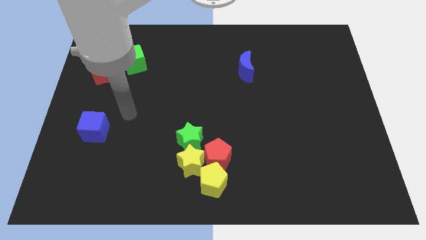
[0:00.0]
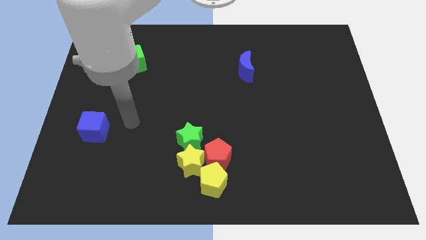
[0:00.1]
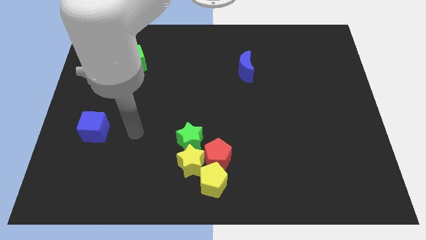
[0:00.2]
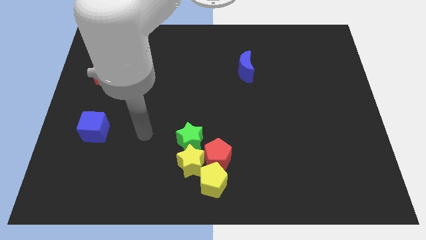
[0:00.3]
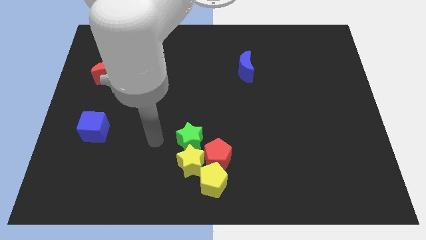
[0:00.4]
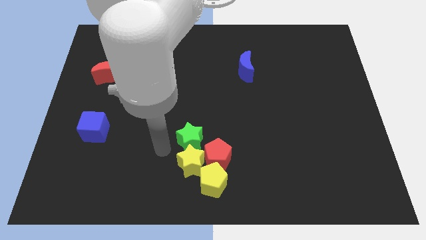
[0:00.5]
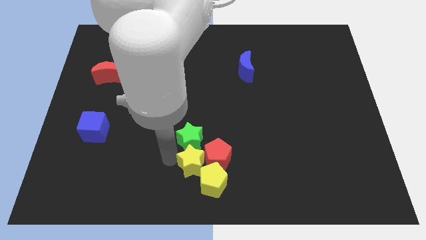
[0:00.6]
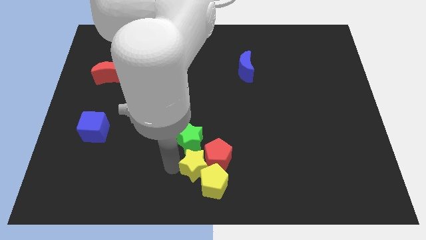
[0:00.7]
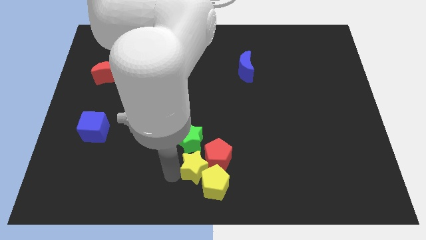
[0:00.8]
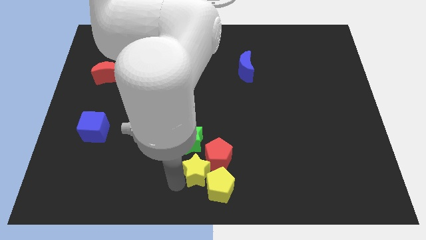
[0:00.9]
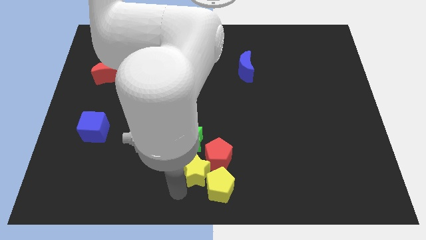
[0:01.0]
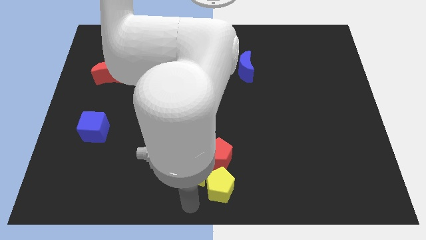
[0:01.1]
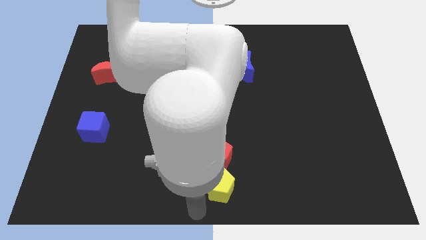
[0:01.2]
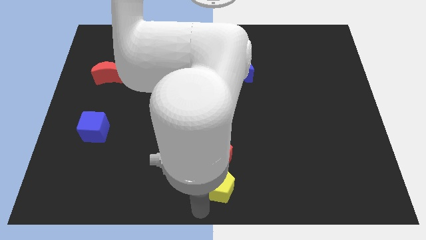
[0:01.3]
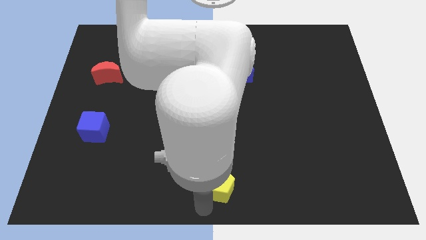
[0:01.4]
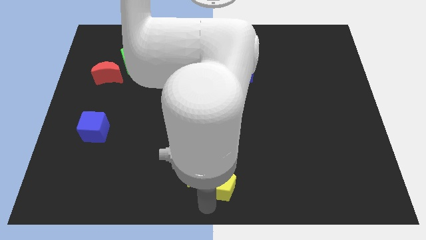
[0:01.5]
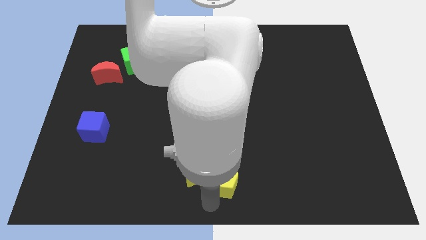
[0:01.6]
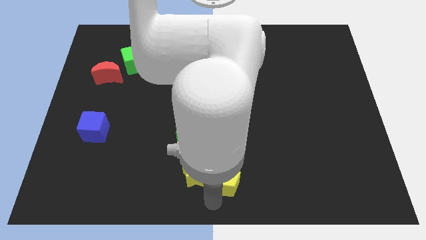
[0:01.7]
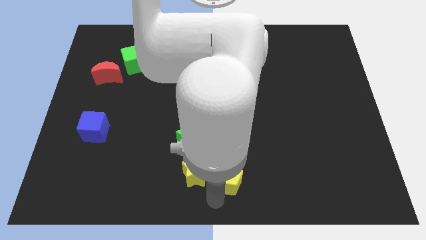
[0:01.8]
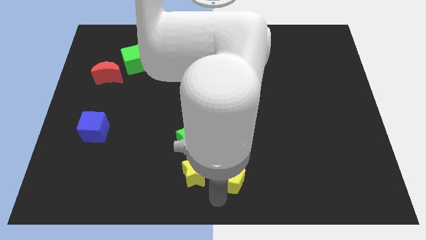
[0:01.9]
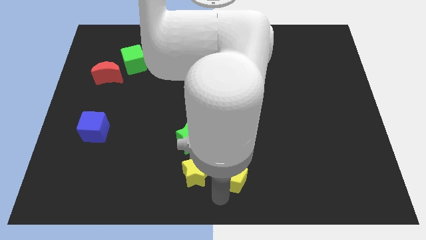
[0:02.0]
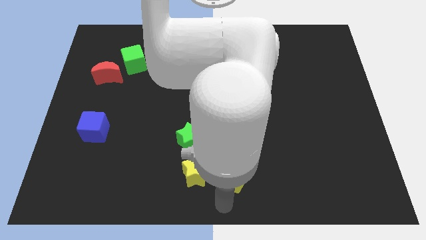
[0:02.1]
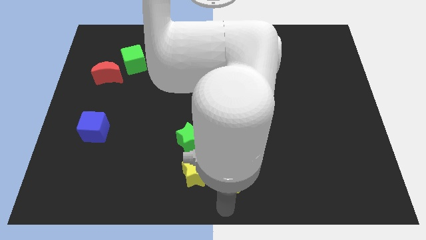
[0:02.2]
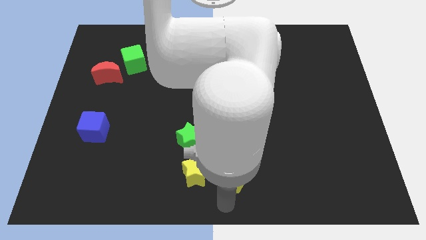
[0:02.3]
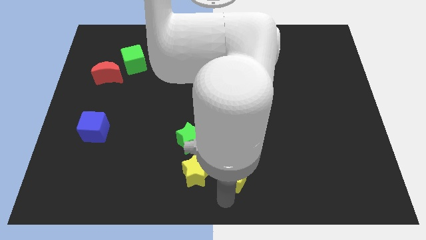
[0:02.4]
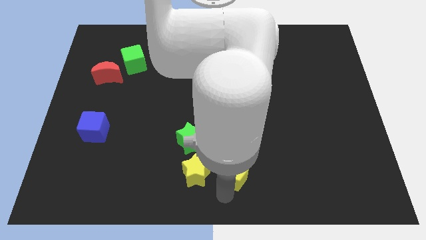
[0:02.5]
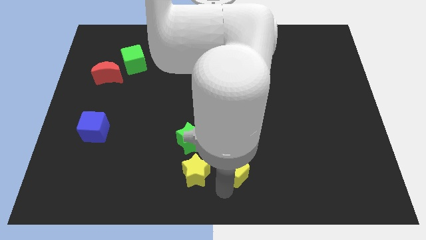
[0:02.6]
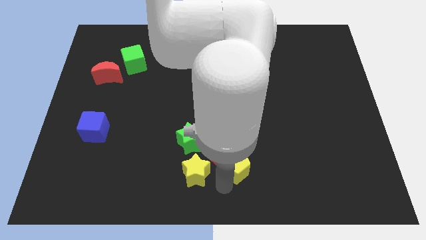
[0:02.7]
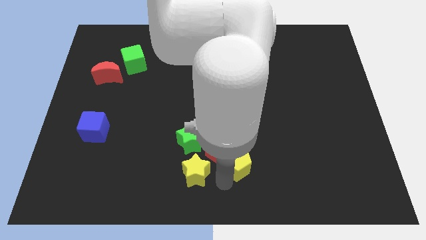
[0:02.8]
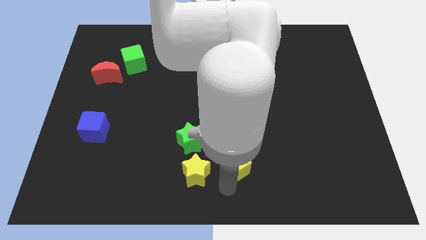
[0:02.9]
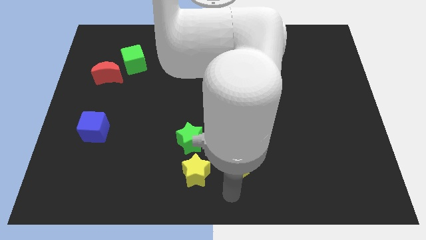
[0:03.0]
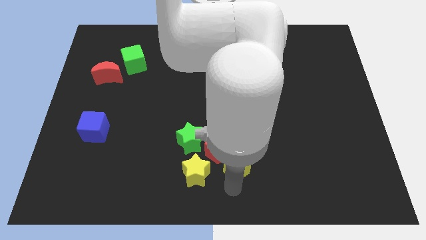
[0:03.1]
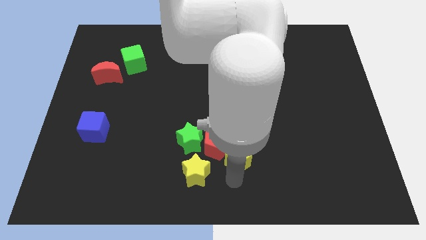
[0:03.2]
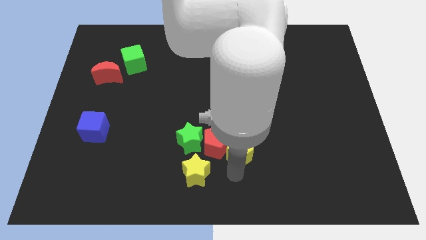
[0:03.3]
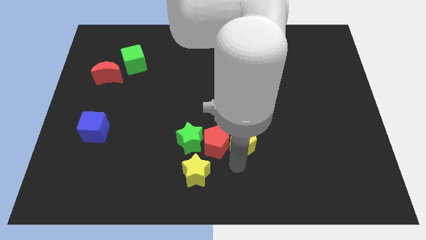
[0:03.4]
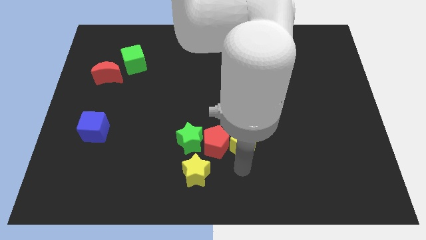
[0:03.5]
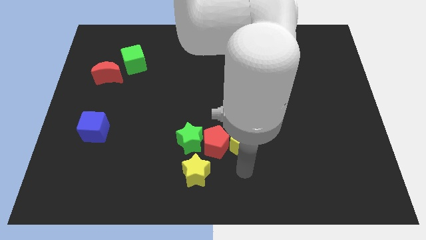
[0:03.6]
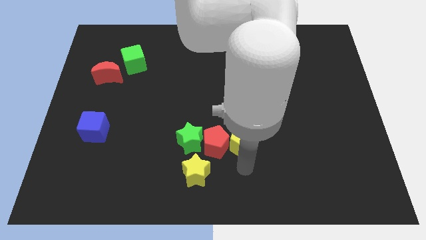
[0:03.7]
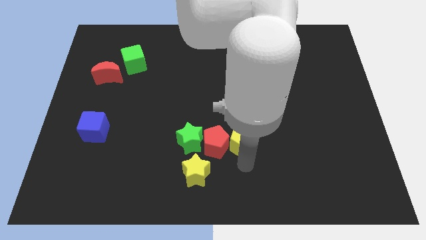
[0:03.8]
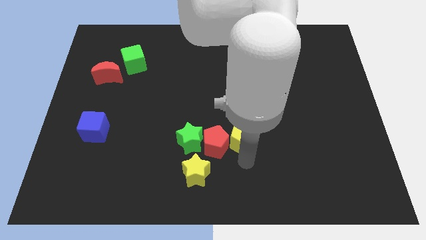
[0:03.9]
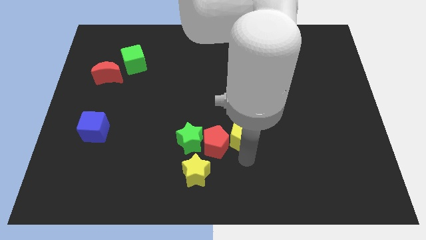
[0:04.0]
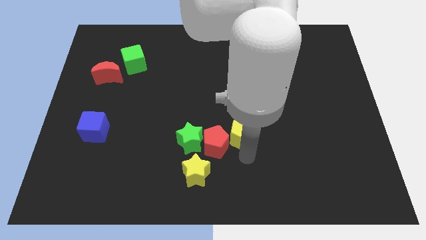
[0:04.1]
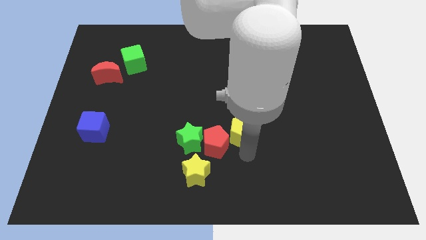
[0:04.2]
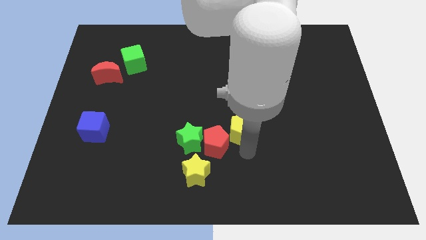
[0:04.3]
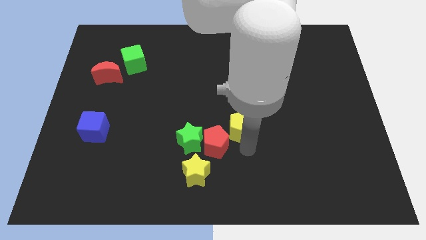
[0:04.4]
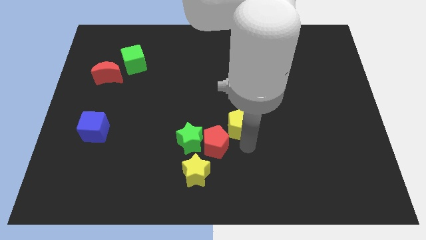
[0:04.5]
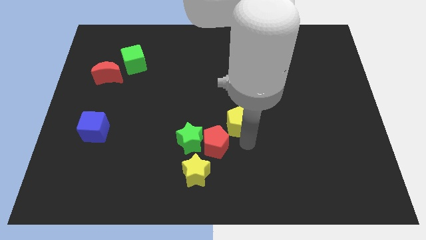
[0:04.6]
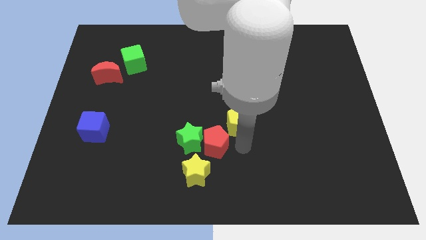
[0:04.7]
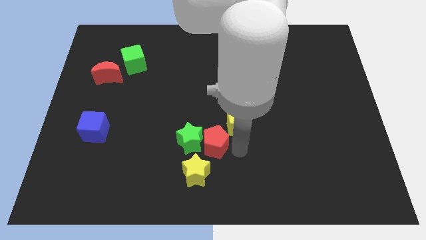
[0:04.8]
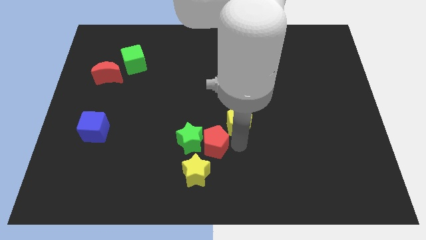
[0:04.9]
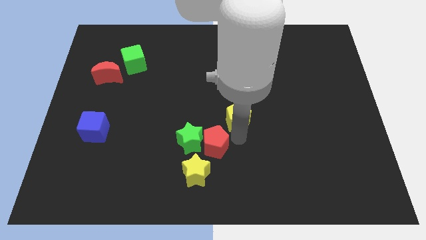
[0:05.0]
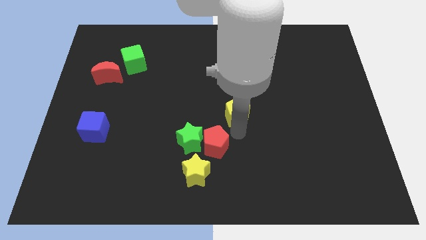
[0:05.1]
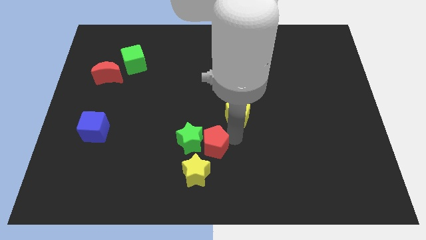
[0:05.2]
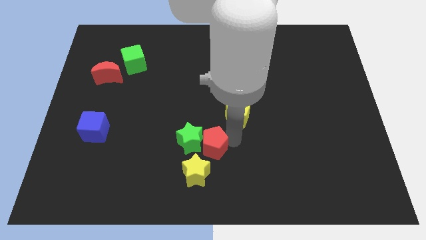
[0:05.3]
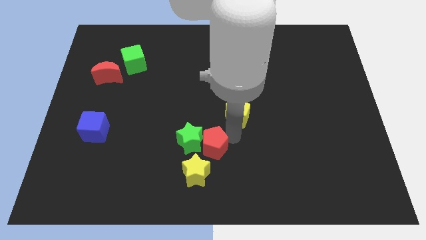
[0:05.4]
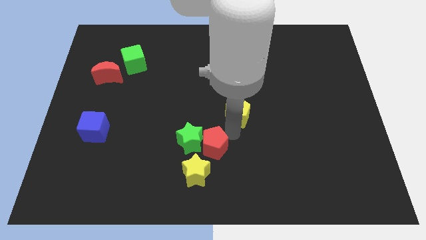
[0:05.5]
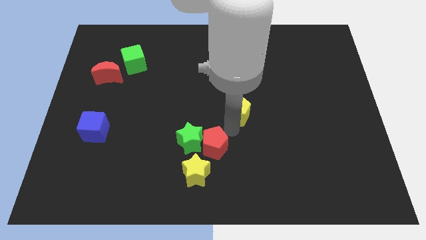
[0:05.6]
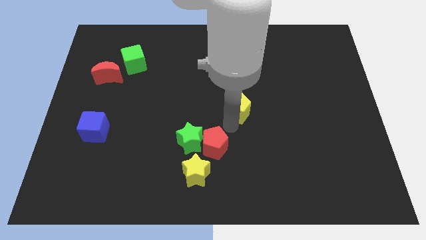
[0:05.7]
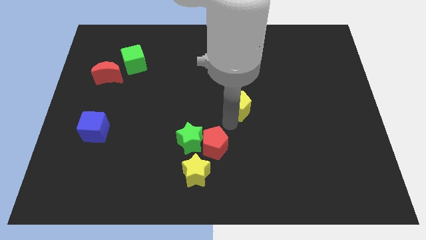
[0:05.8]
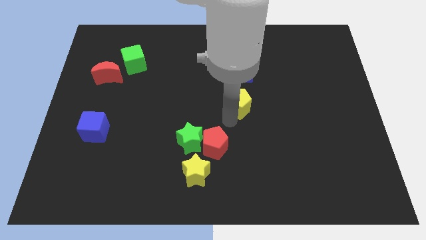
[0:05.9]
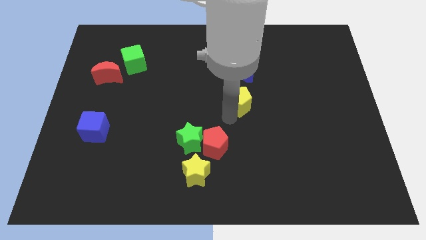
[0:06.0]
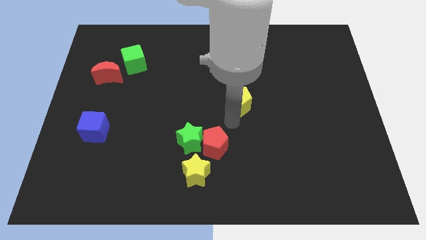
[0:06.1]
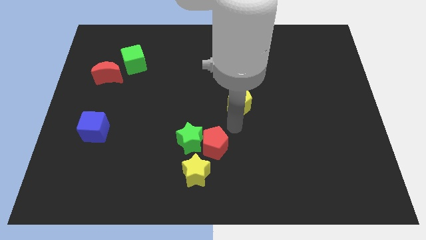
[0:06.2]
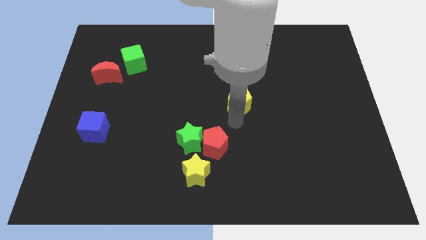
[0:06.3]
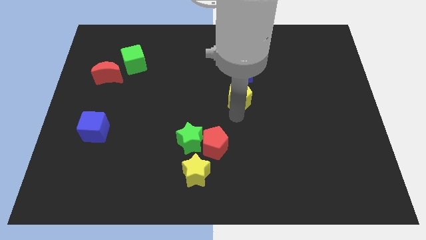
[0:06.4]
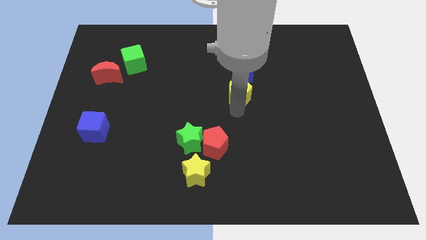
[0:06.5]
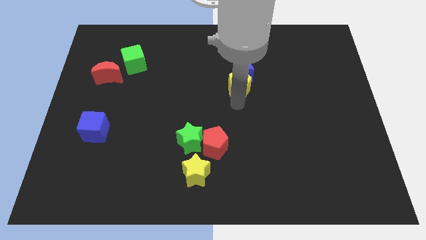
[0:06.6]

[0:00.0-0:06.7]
put the yellow pentagon to the blue moon
